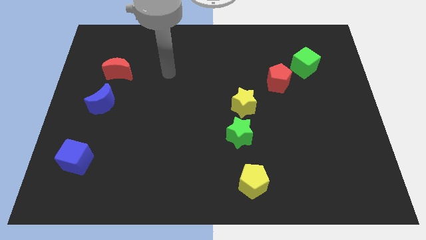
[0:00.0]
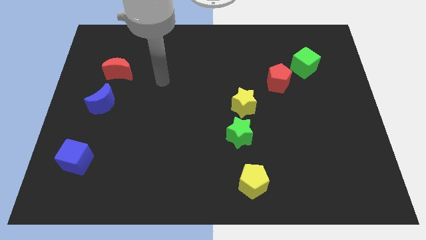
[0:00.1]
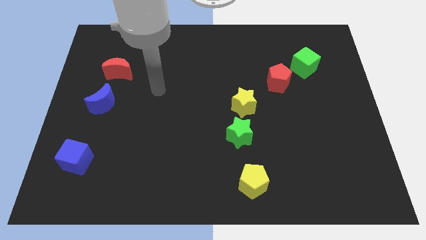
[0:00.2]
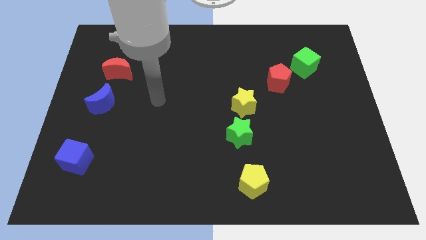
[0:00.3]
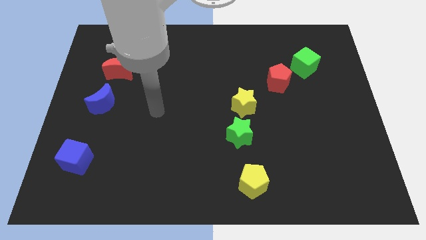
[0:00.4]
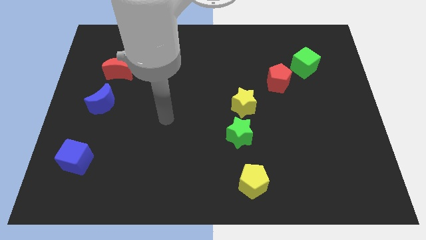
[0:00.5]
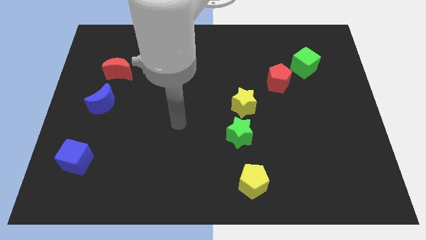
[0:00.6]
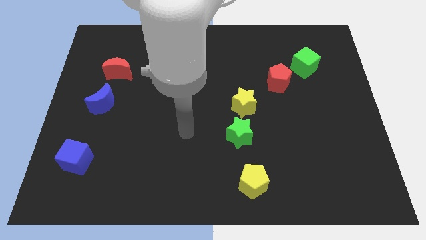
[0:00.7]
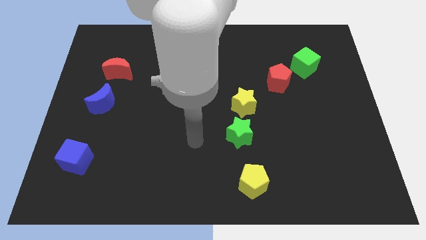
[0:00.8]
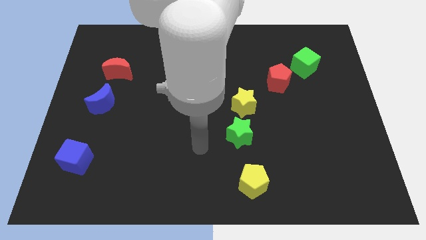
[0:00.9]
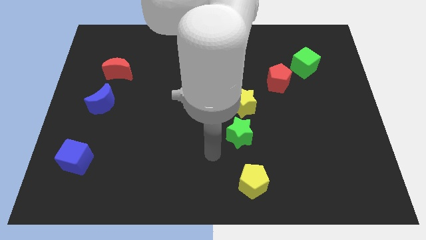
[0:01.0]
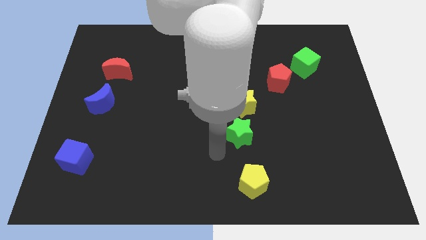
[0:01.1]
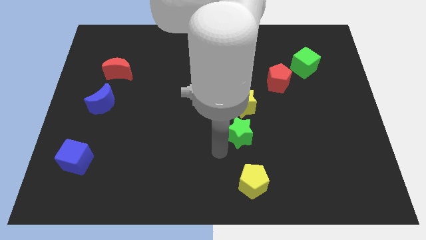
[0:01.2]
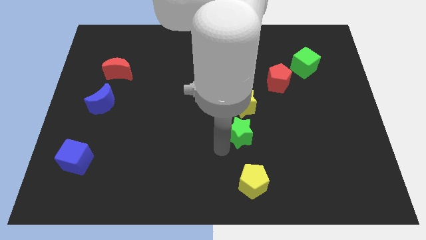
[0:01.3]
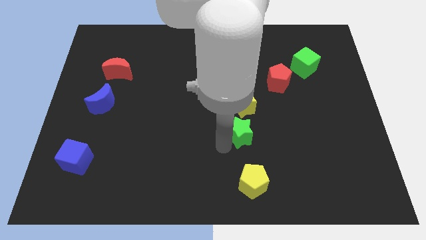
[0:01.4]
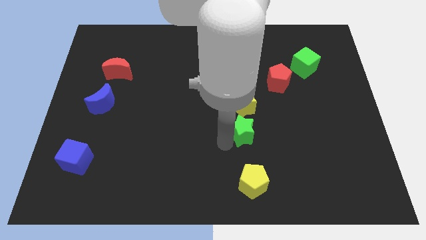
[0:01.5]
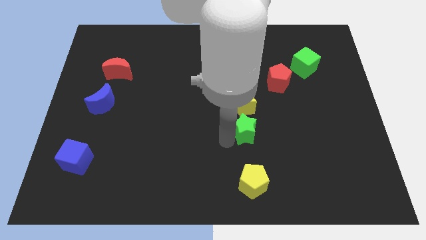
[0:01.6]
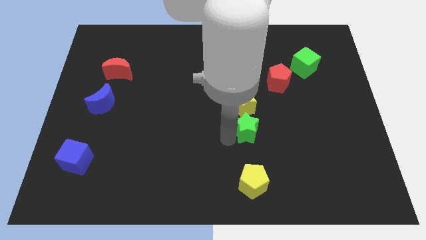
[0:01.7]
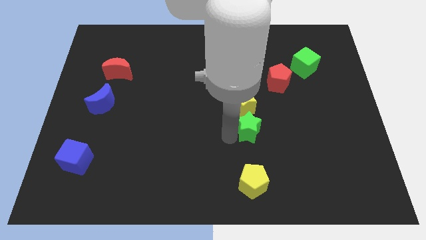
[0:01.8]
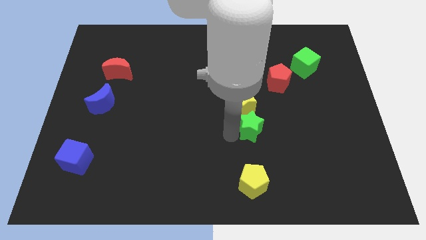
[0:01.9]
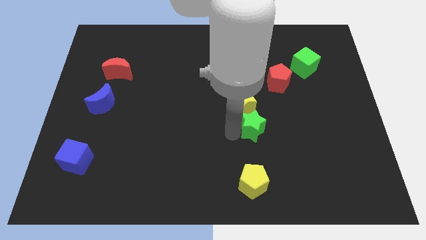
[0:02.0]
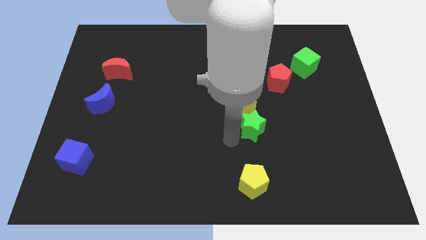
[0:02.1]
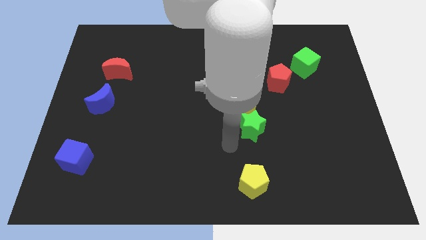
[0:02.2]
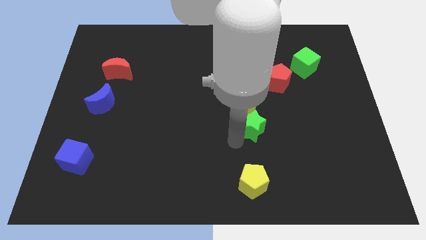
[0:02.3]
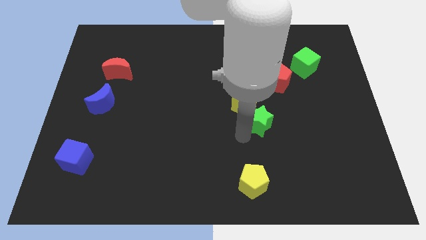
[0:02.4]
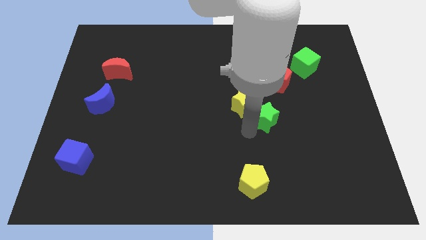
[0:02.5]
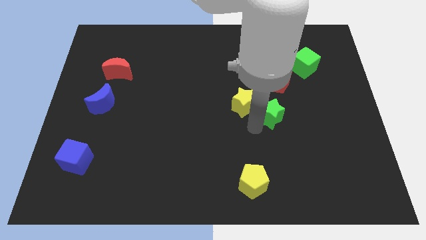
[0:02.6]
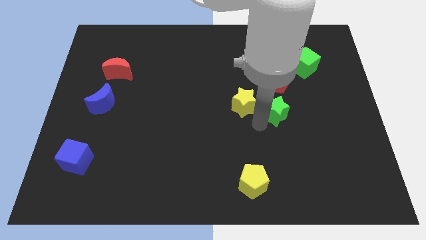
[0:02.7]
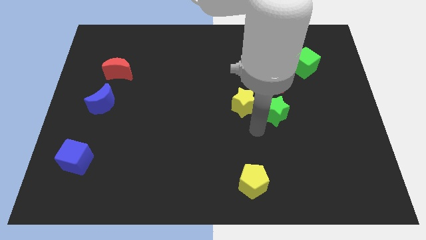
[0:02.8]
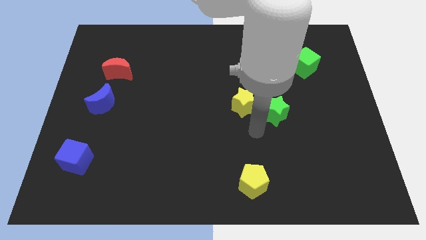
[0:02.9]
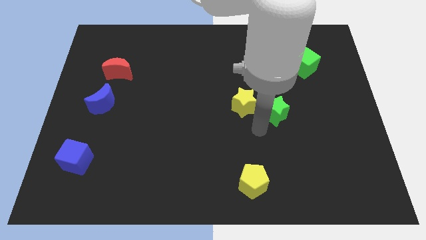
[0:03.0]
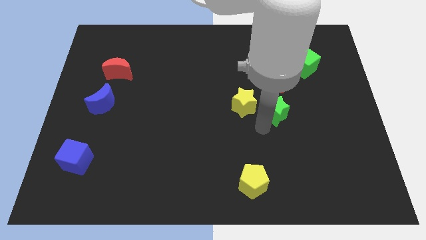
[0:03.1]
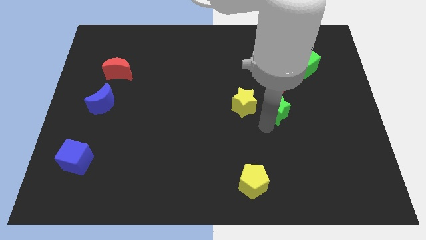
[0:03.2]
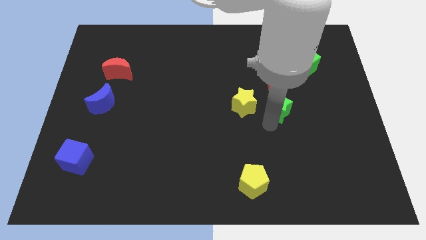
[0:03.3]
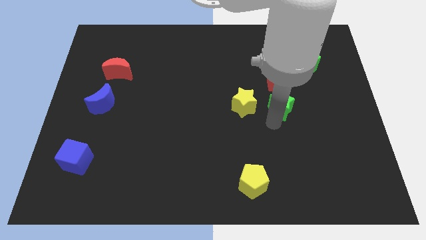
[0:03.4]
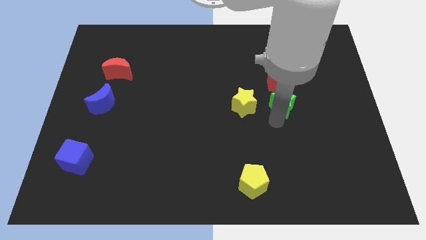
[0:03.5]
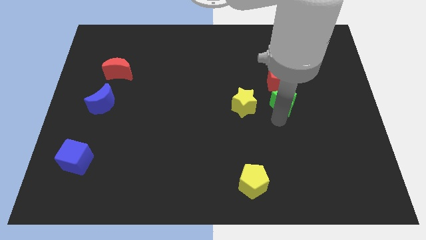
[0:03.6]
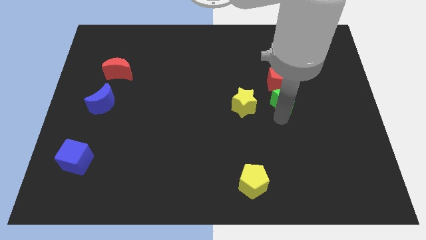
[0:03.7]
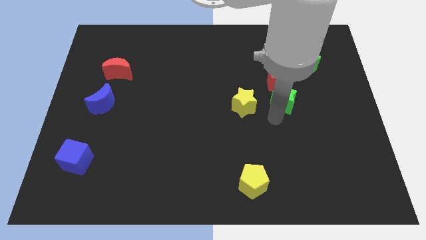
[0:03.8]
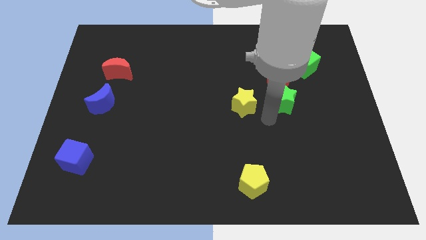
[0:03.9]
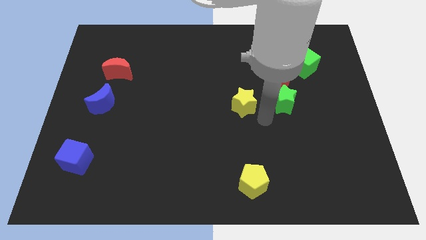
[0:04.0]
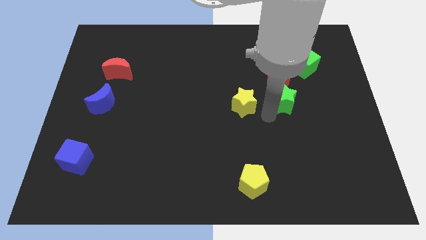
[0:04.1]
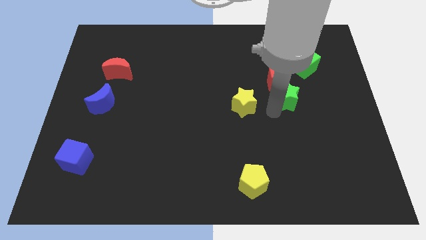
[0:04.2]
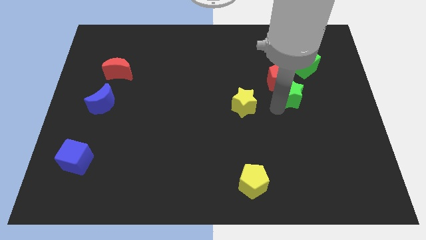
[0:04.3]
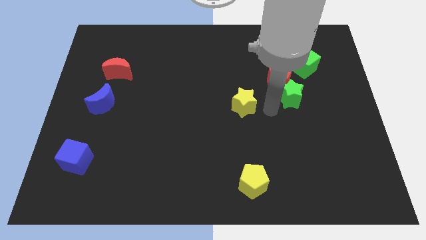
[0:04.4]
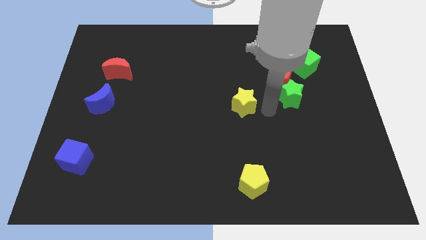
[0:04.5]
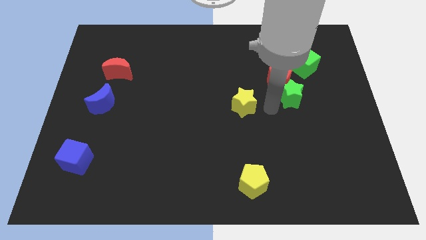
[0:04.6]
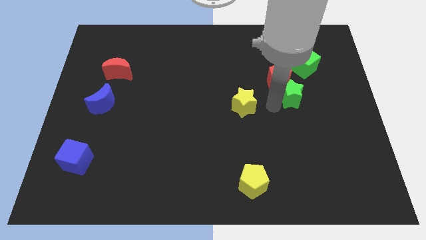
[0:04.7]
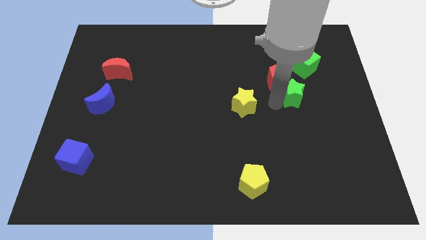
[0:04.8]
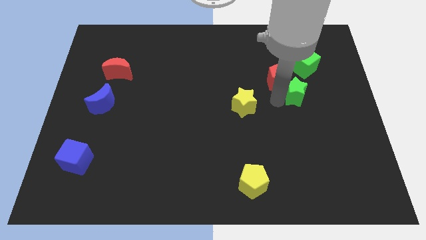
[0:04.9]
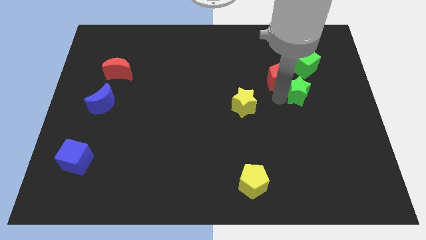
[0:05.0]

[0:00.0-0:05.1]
push the green star to the right of the red pentagon

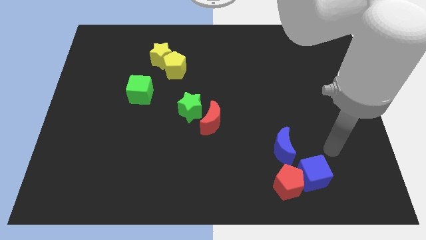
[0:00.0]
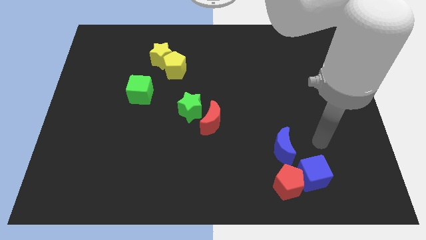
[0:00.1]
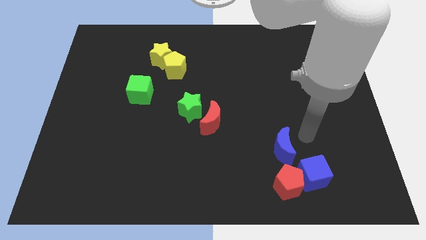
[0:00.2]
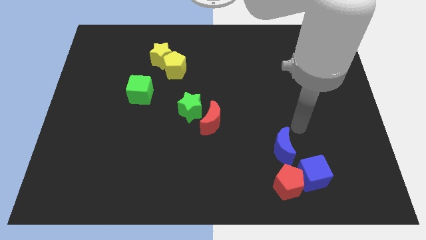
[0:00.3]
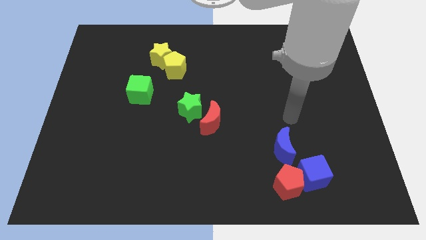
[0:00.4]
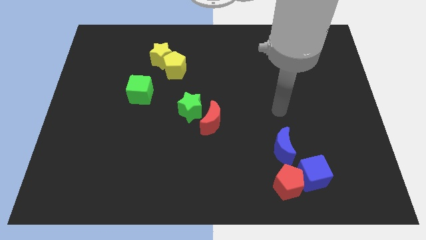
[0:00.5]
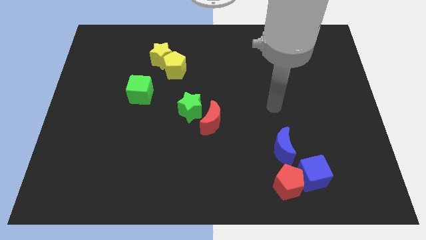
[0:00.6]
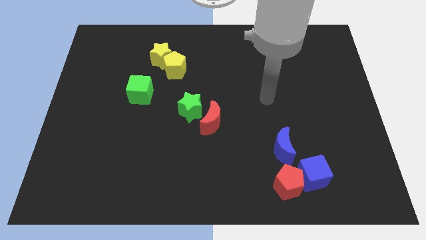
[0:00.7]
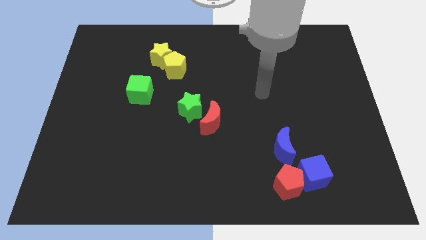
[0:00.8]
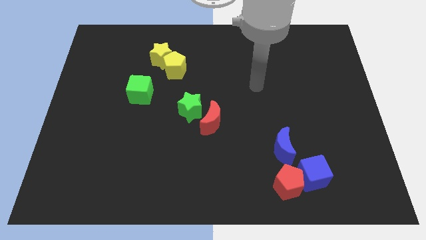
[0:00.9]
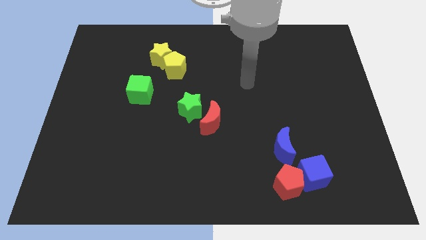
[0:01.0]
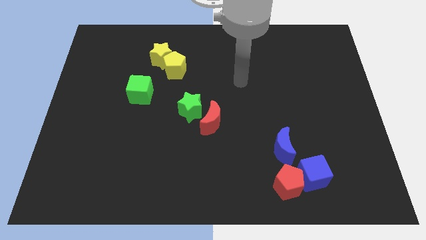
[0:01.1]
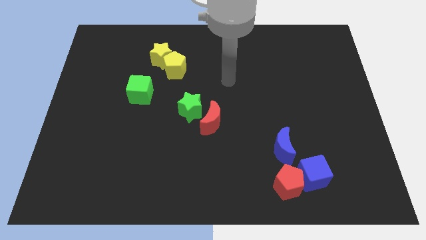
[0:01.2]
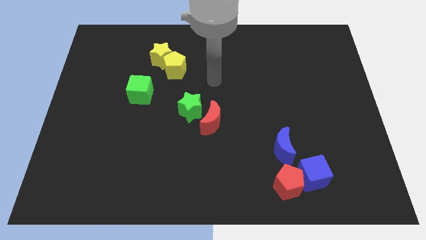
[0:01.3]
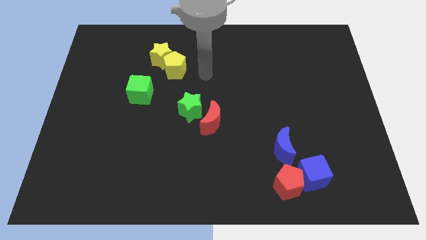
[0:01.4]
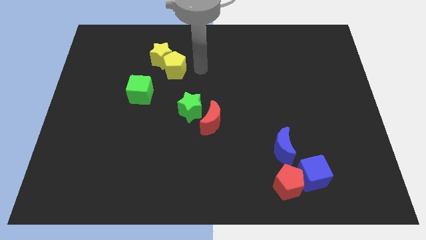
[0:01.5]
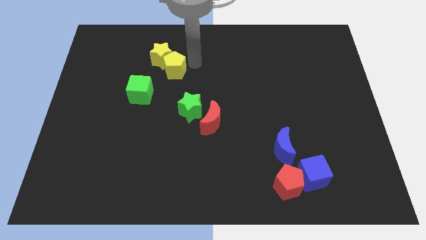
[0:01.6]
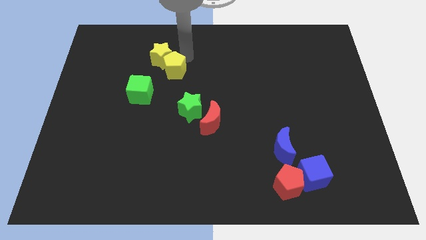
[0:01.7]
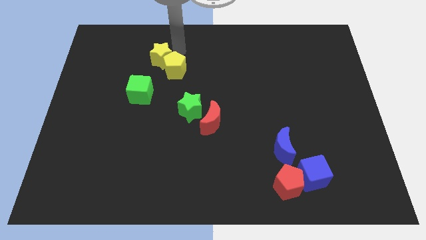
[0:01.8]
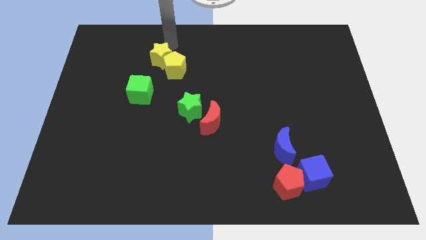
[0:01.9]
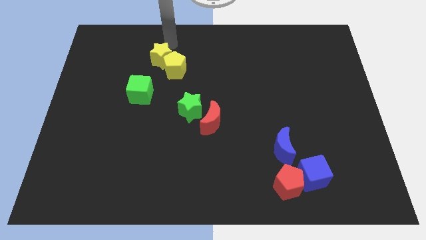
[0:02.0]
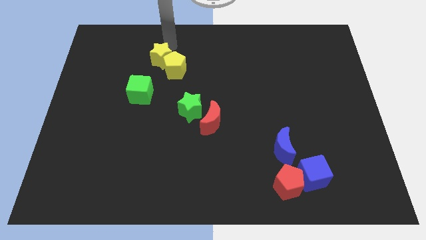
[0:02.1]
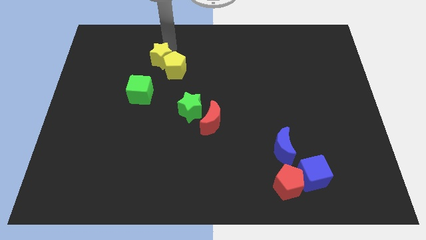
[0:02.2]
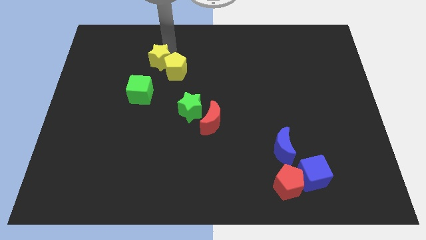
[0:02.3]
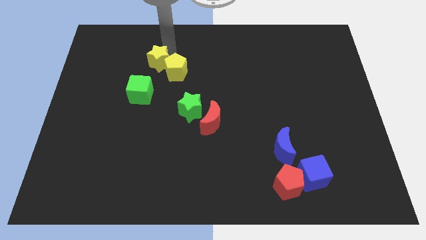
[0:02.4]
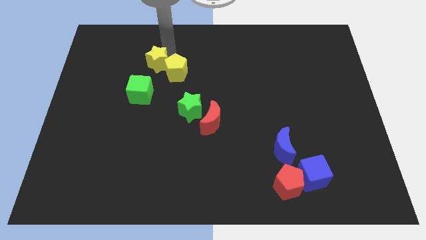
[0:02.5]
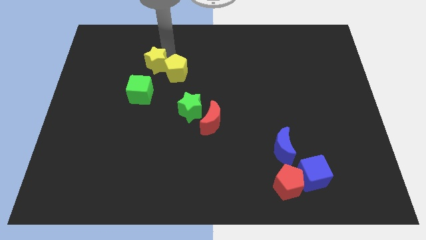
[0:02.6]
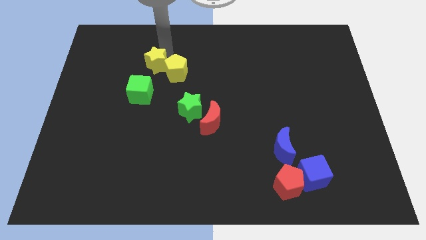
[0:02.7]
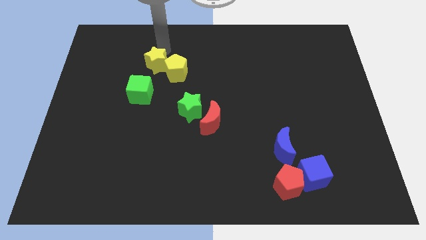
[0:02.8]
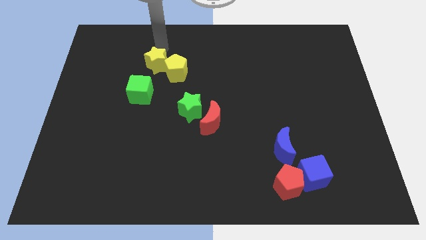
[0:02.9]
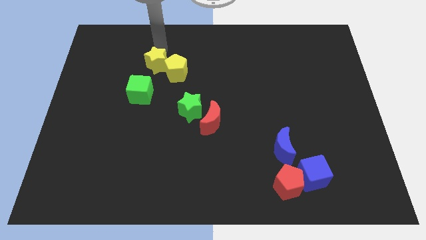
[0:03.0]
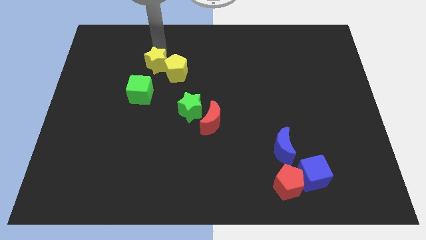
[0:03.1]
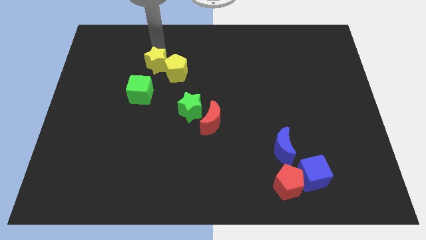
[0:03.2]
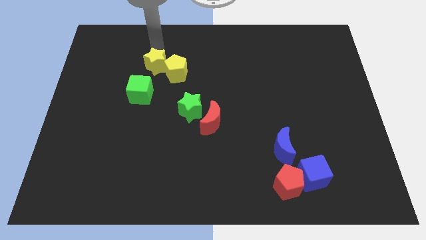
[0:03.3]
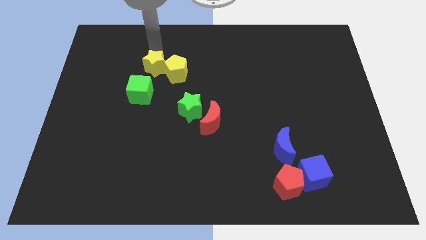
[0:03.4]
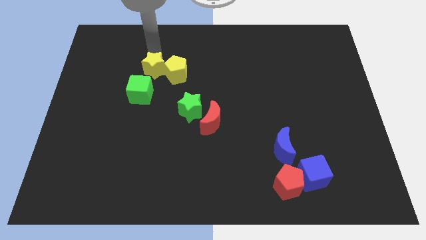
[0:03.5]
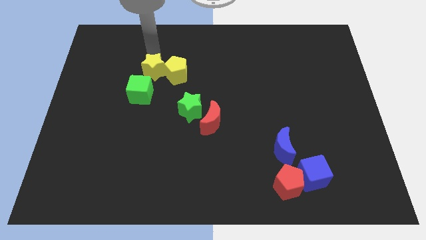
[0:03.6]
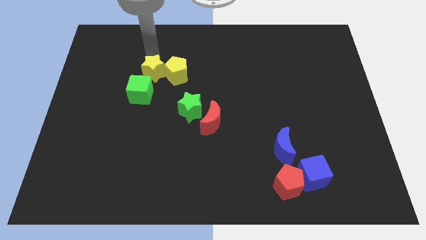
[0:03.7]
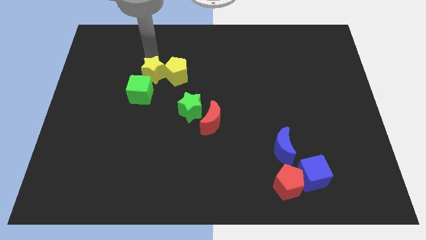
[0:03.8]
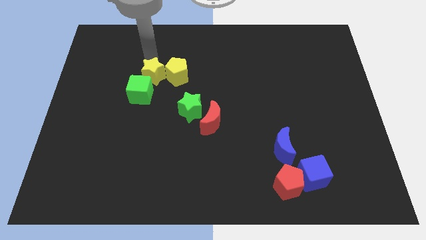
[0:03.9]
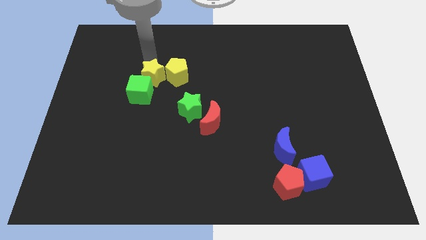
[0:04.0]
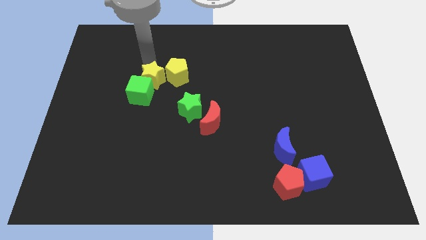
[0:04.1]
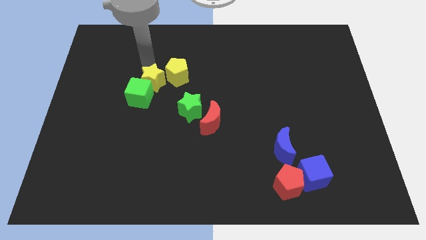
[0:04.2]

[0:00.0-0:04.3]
slide the yellow star right of the green cube
